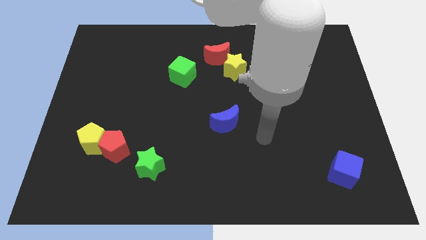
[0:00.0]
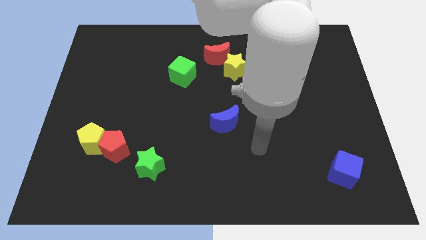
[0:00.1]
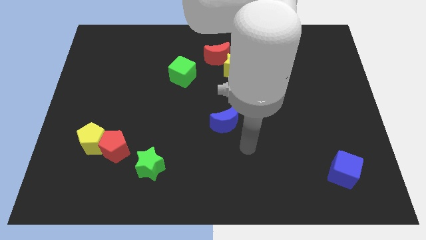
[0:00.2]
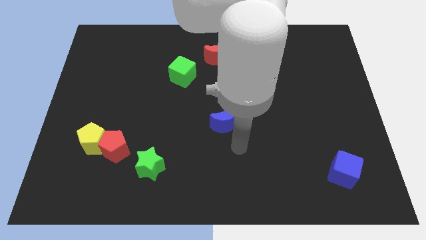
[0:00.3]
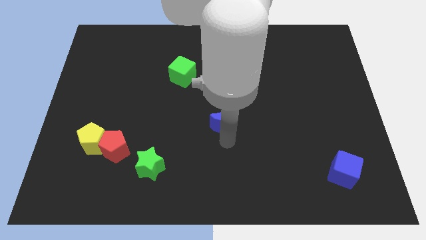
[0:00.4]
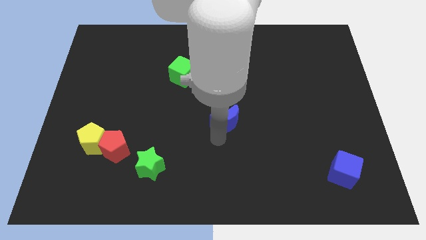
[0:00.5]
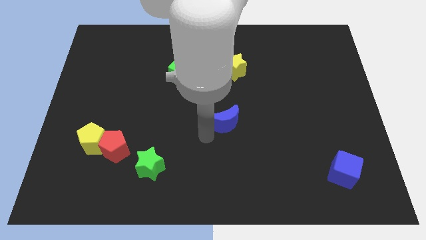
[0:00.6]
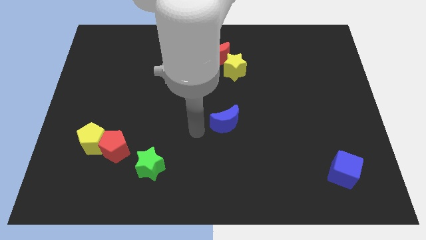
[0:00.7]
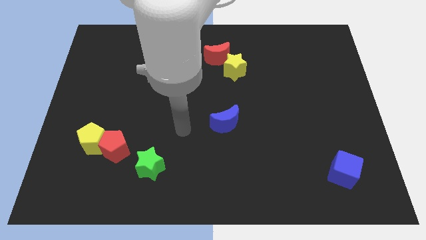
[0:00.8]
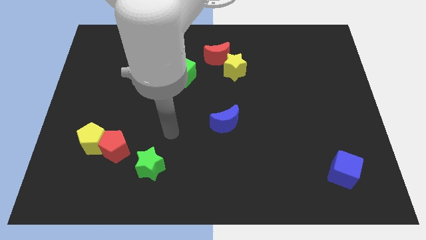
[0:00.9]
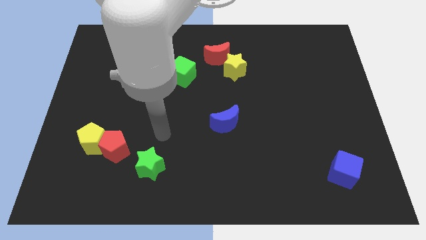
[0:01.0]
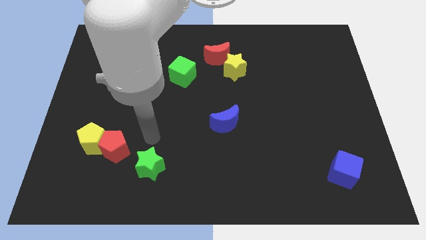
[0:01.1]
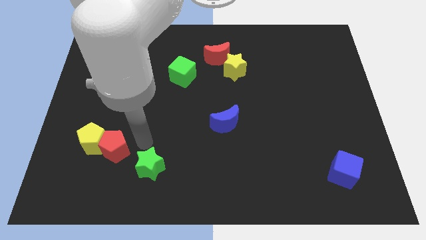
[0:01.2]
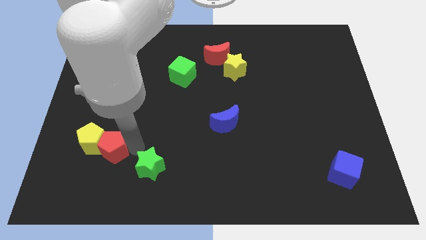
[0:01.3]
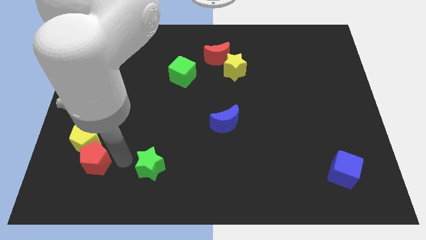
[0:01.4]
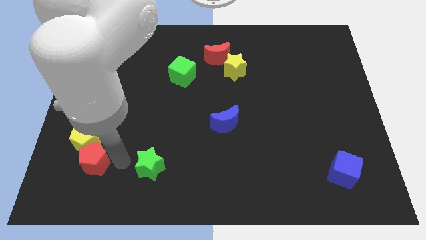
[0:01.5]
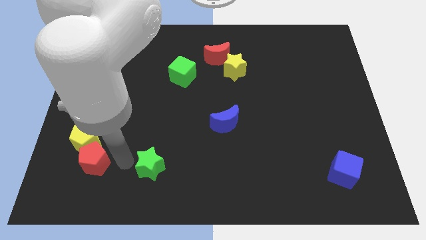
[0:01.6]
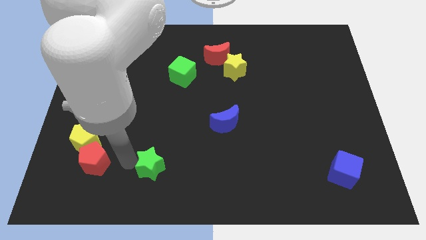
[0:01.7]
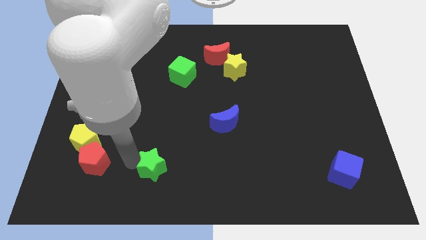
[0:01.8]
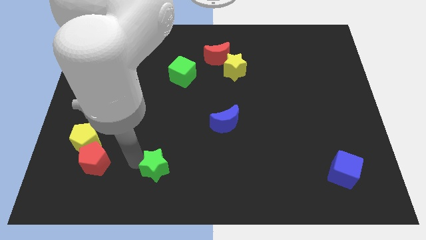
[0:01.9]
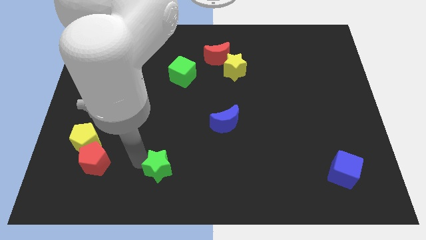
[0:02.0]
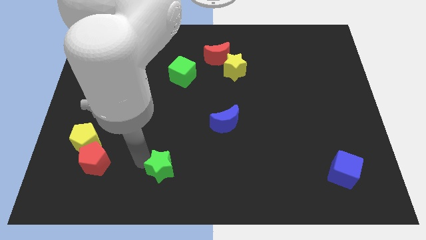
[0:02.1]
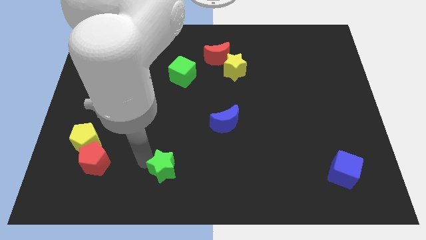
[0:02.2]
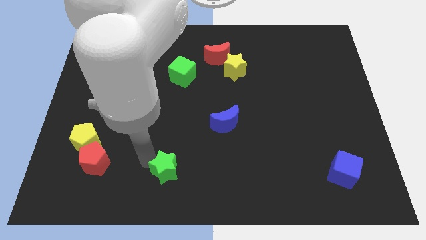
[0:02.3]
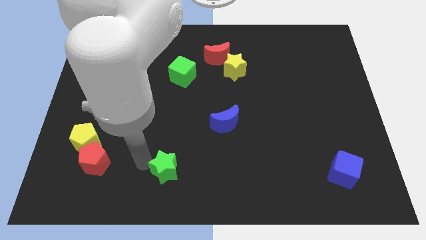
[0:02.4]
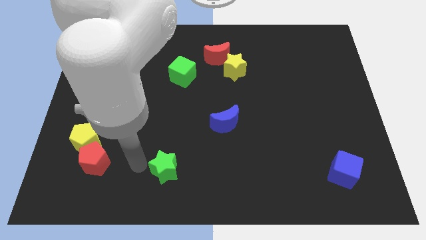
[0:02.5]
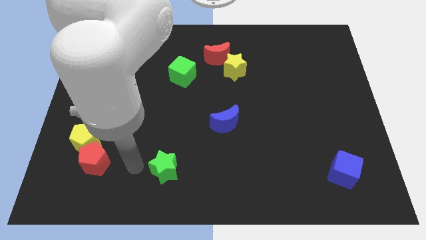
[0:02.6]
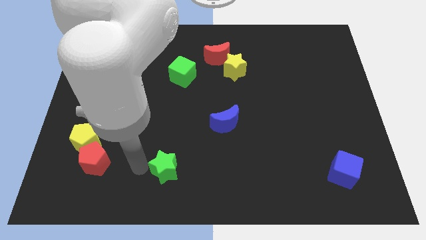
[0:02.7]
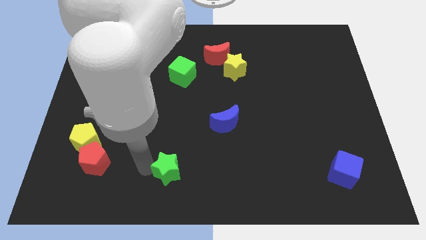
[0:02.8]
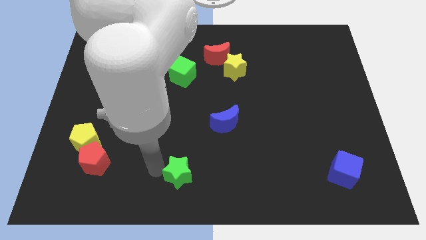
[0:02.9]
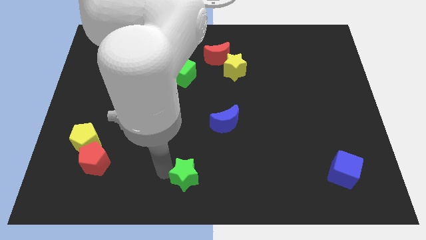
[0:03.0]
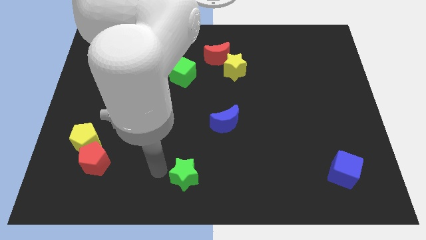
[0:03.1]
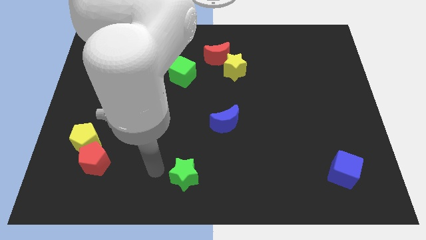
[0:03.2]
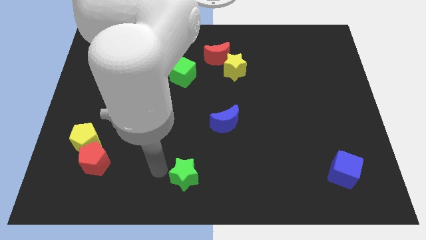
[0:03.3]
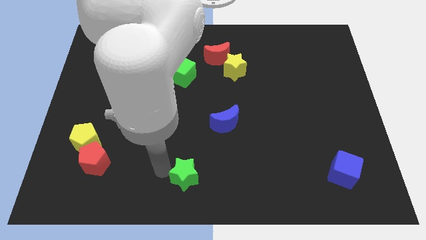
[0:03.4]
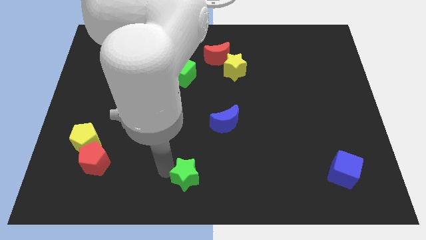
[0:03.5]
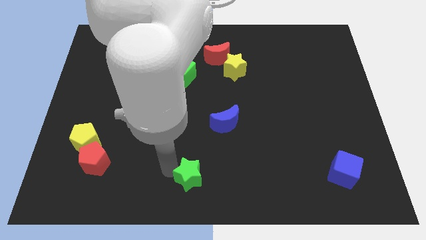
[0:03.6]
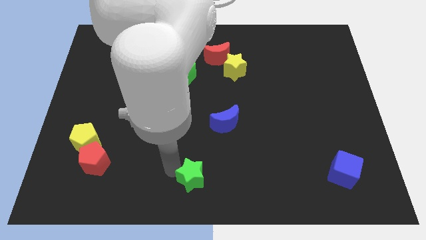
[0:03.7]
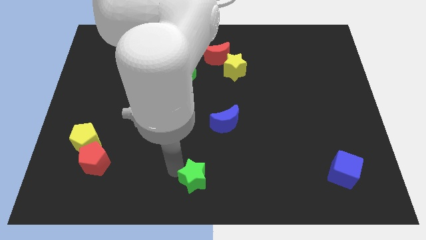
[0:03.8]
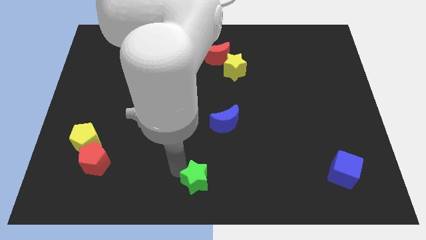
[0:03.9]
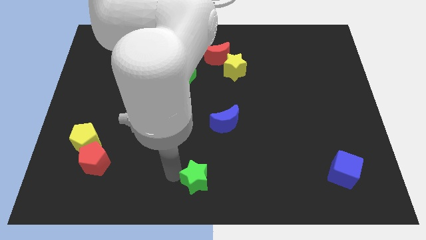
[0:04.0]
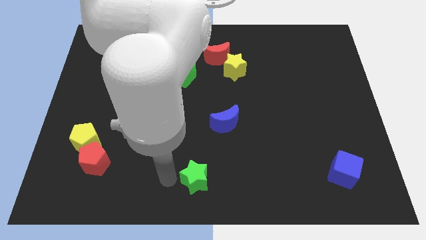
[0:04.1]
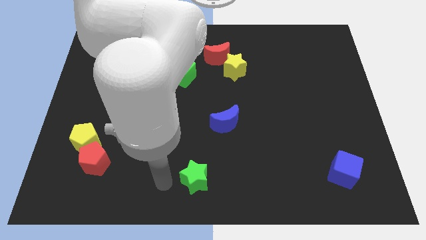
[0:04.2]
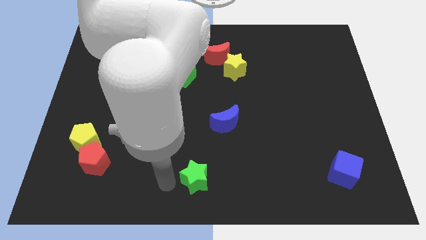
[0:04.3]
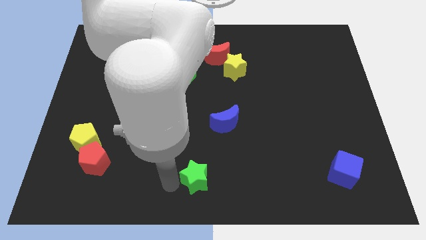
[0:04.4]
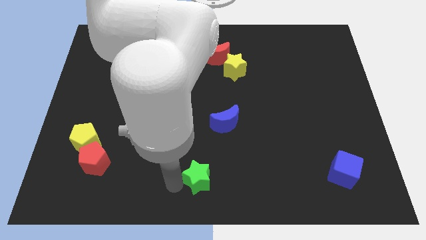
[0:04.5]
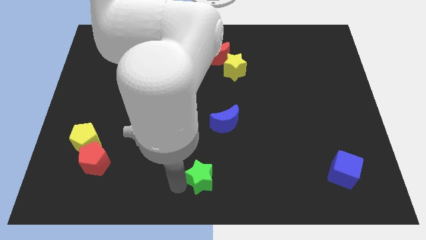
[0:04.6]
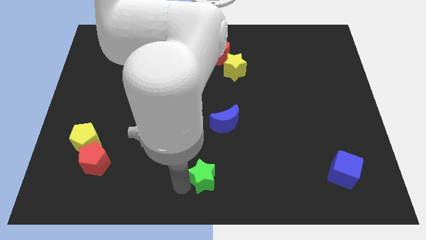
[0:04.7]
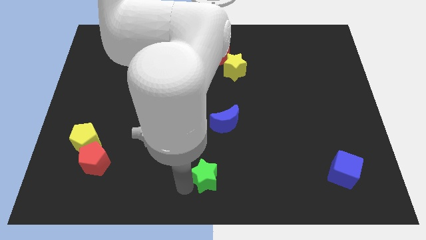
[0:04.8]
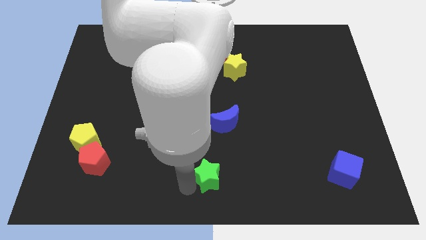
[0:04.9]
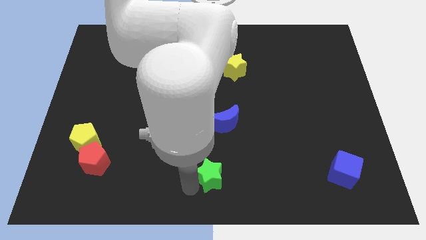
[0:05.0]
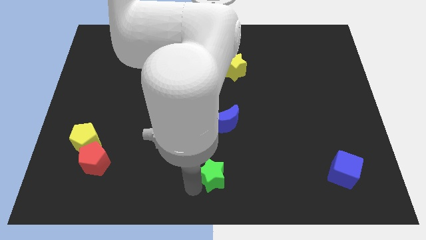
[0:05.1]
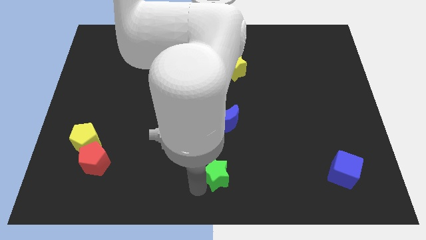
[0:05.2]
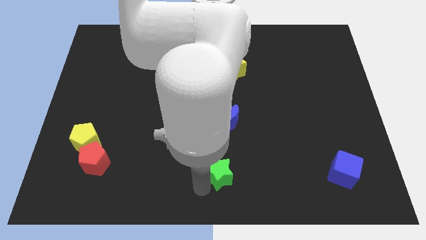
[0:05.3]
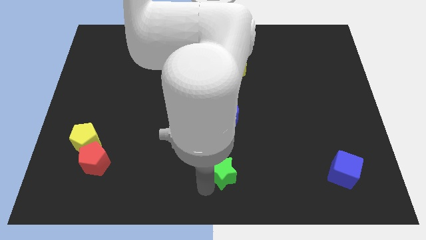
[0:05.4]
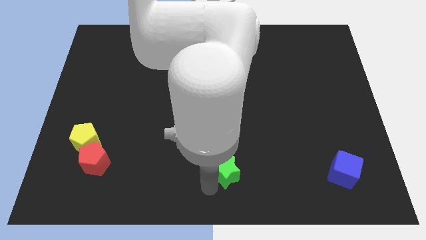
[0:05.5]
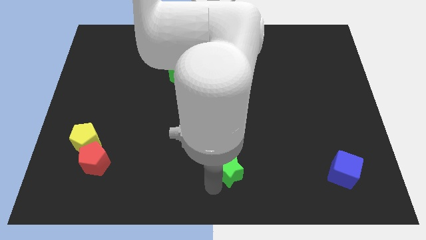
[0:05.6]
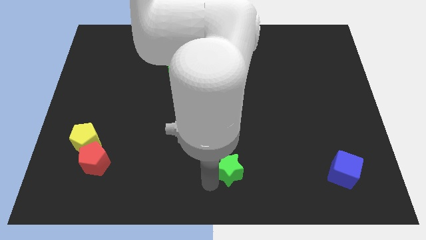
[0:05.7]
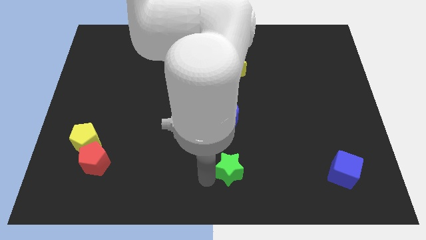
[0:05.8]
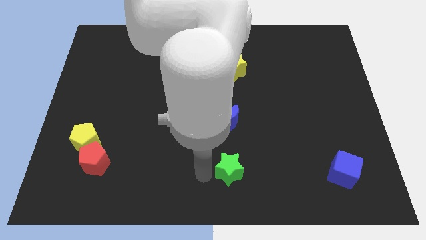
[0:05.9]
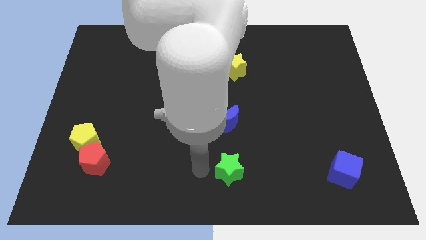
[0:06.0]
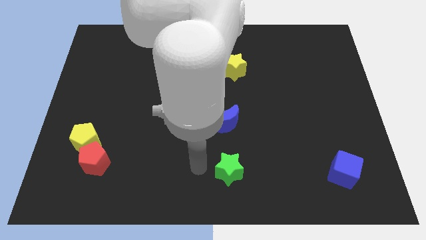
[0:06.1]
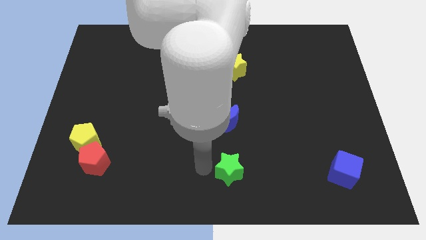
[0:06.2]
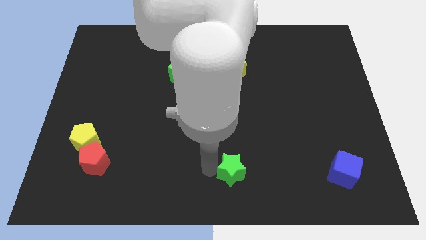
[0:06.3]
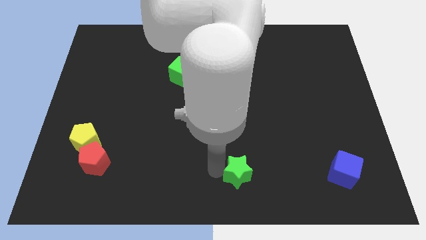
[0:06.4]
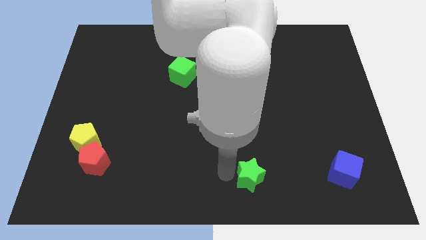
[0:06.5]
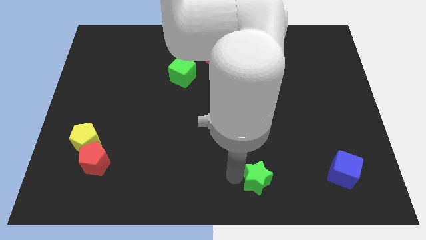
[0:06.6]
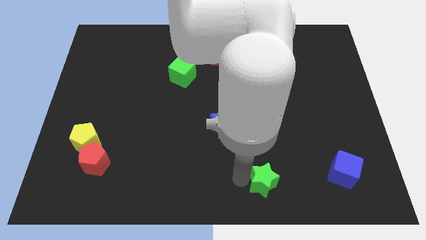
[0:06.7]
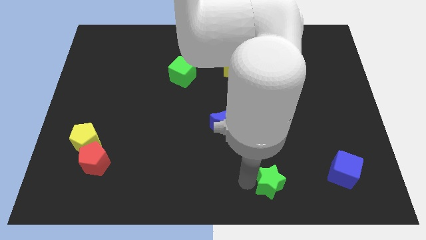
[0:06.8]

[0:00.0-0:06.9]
push the green star left of the blue cube

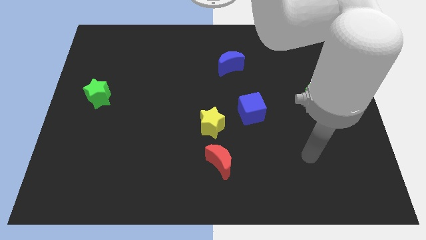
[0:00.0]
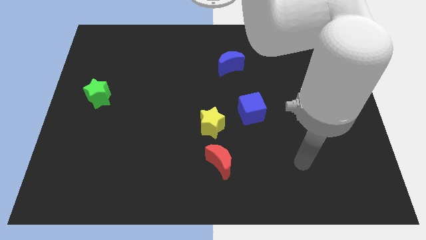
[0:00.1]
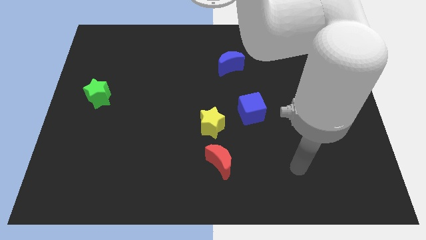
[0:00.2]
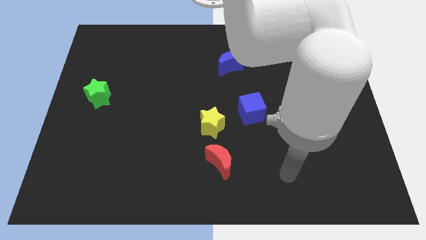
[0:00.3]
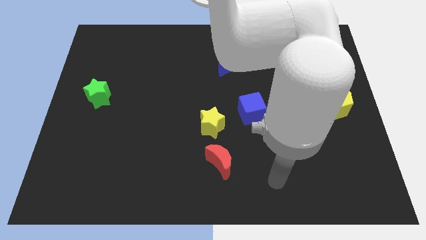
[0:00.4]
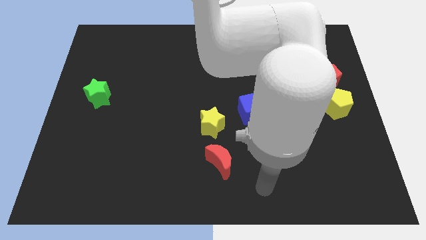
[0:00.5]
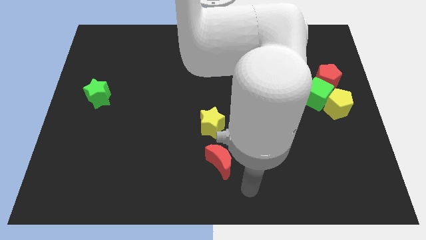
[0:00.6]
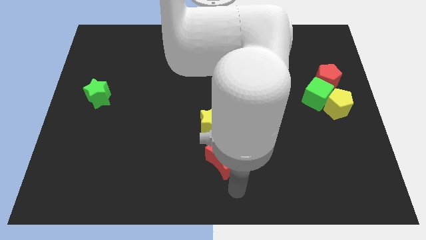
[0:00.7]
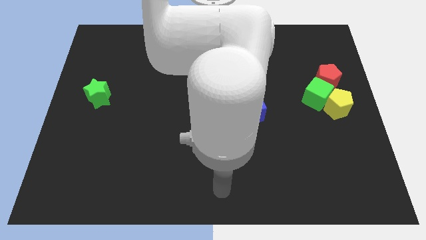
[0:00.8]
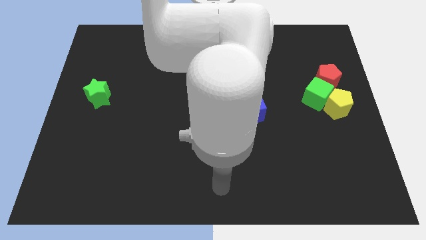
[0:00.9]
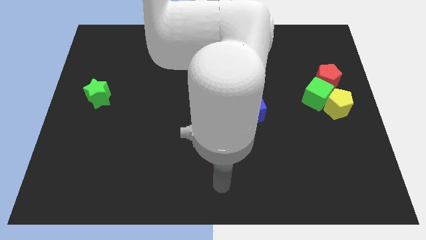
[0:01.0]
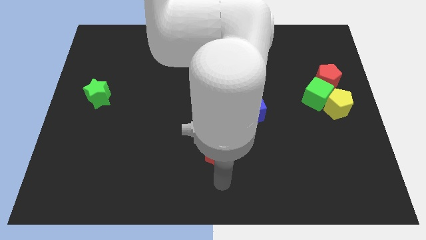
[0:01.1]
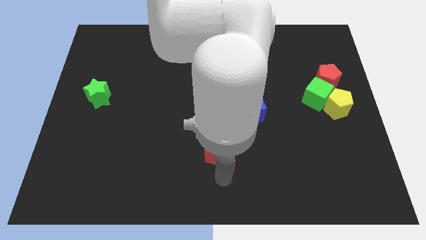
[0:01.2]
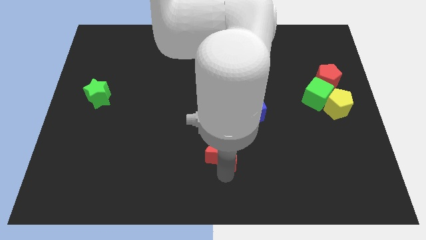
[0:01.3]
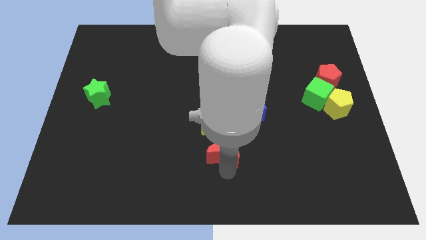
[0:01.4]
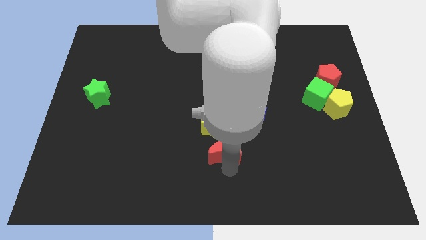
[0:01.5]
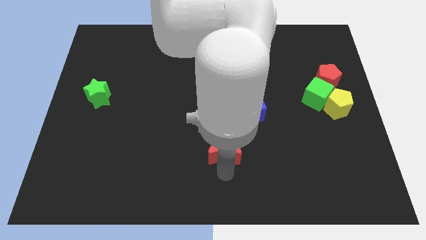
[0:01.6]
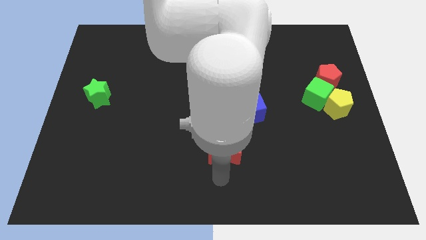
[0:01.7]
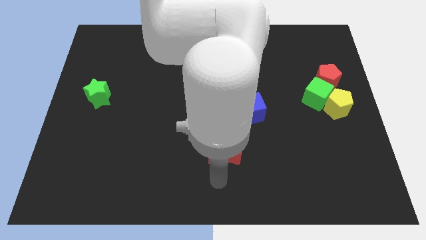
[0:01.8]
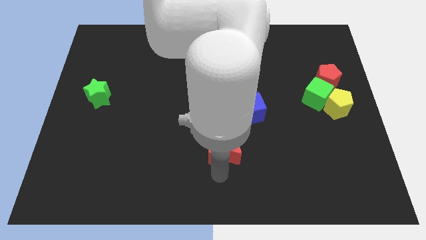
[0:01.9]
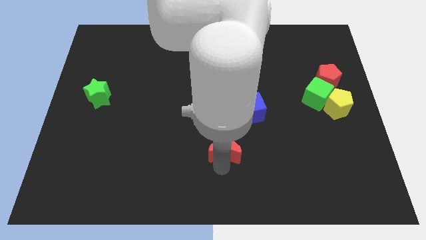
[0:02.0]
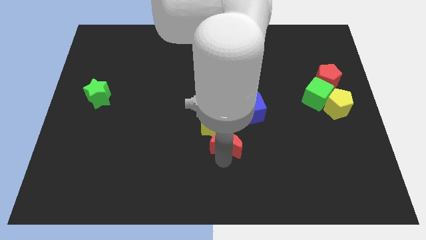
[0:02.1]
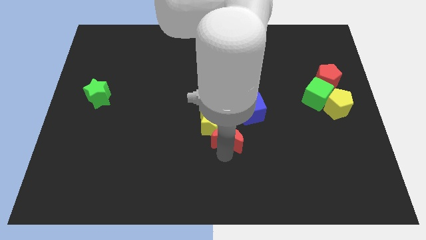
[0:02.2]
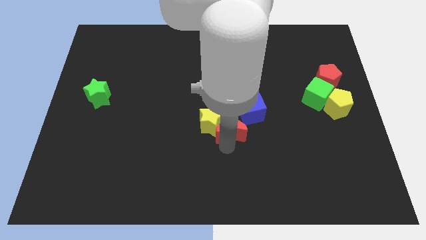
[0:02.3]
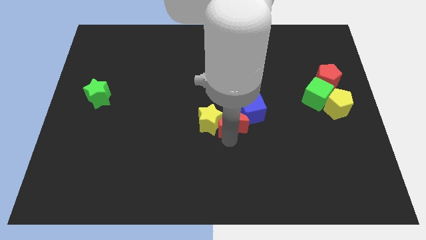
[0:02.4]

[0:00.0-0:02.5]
move the red moon to the top right side of the yellow star
